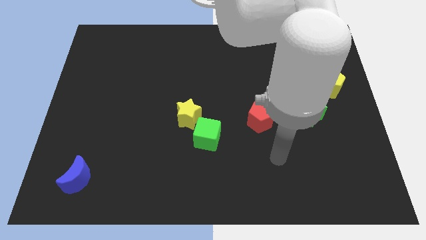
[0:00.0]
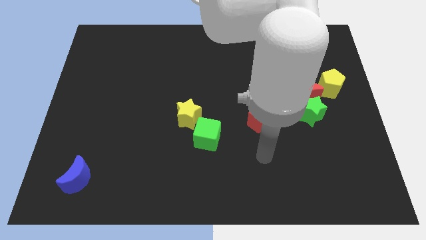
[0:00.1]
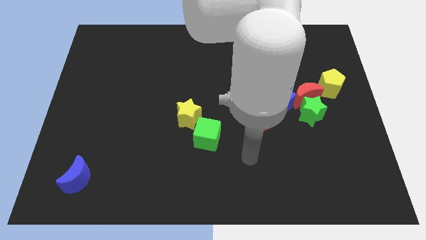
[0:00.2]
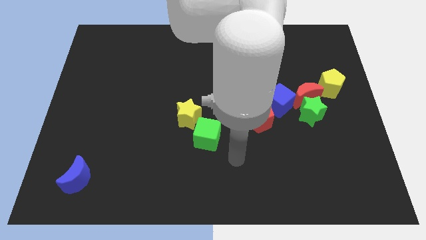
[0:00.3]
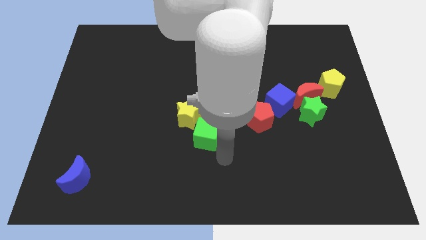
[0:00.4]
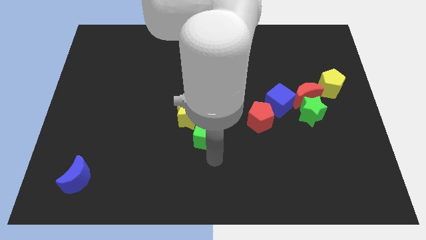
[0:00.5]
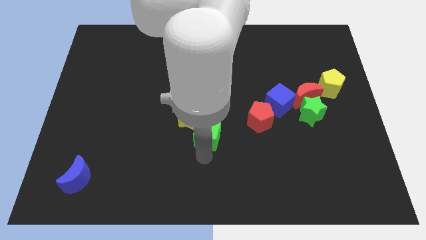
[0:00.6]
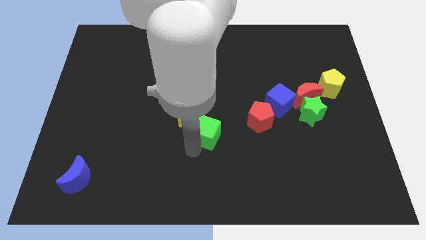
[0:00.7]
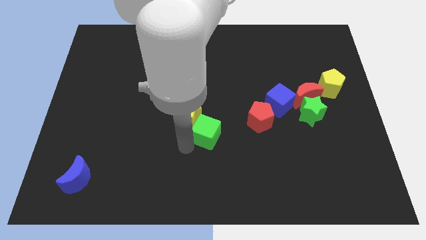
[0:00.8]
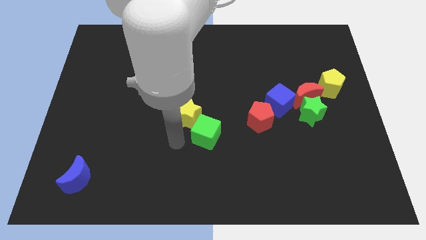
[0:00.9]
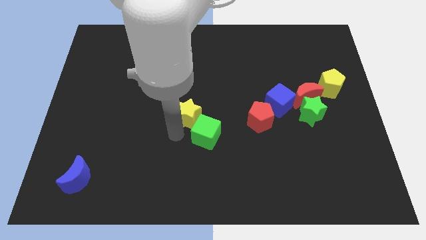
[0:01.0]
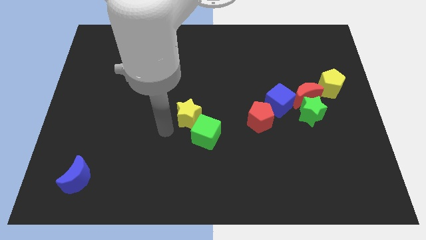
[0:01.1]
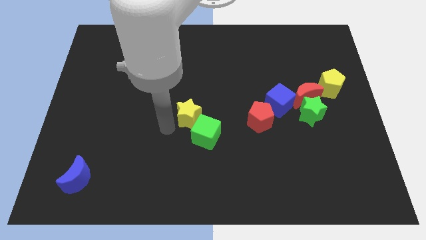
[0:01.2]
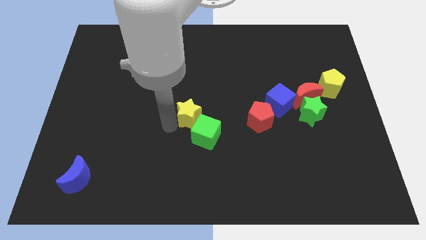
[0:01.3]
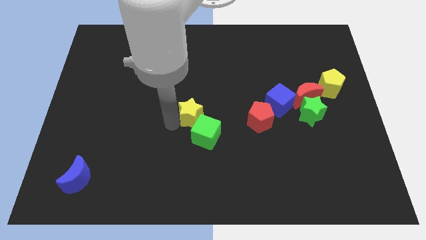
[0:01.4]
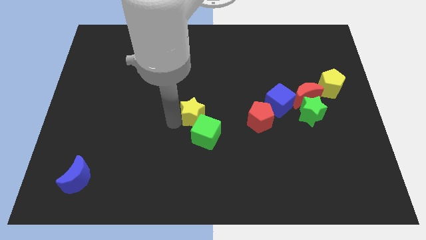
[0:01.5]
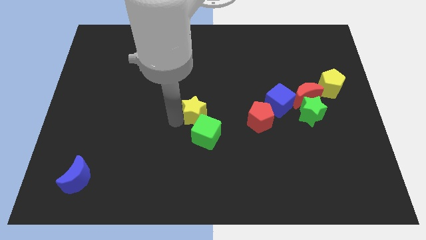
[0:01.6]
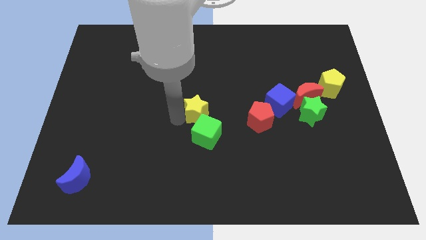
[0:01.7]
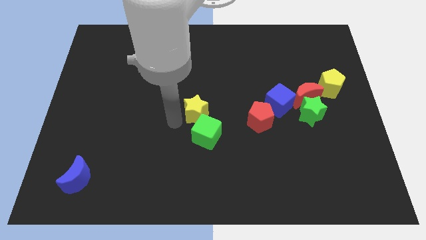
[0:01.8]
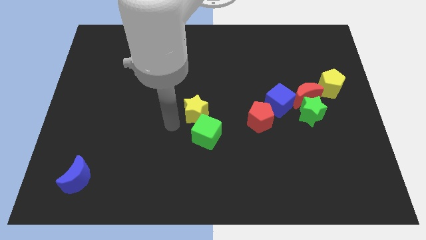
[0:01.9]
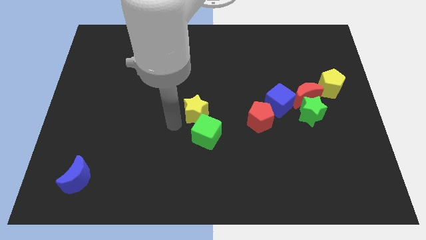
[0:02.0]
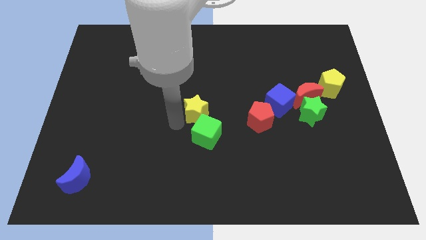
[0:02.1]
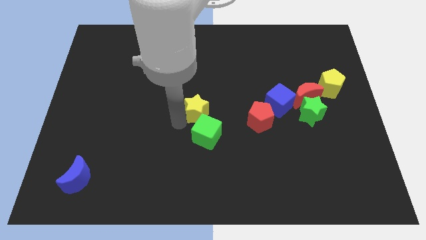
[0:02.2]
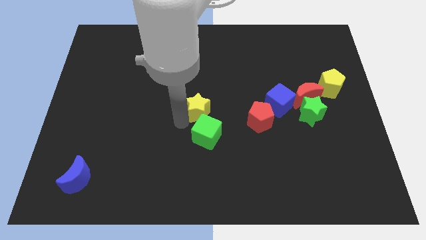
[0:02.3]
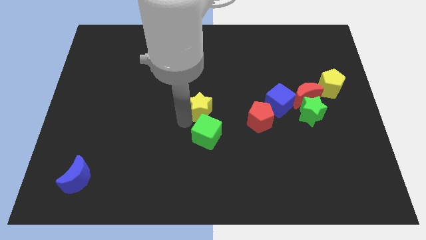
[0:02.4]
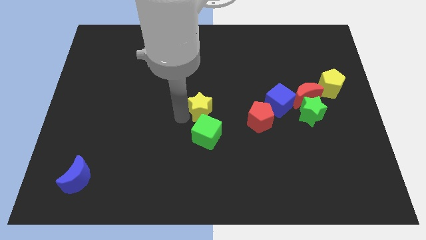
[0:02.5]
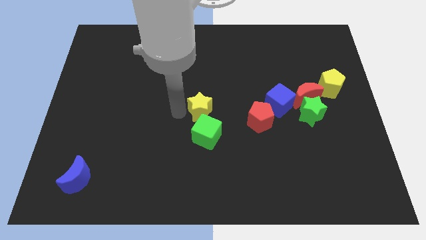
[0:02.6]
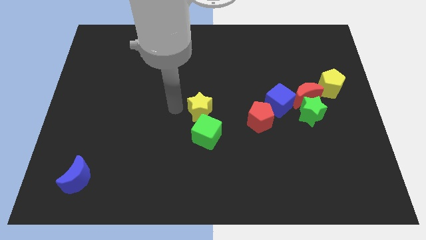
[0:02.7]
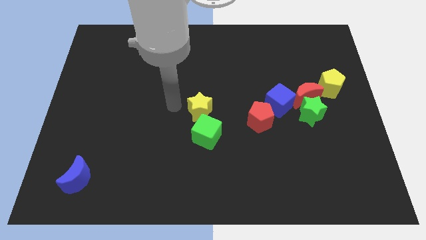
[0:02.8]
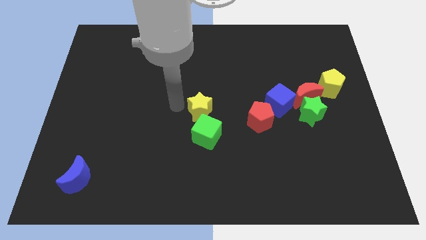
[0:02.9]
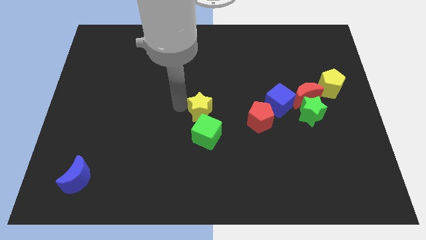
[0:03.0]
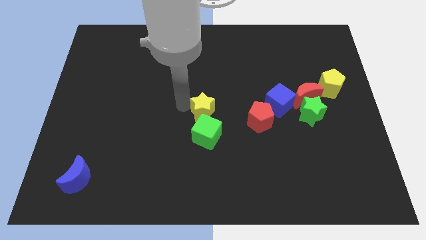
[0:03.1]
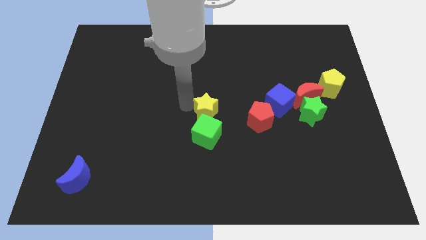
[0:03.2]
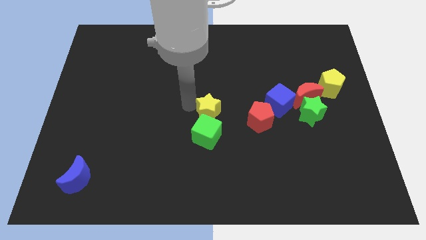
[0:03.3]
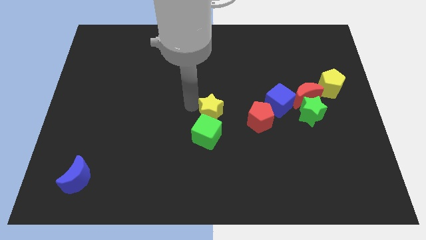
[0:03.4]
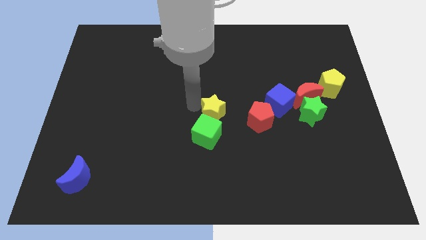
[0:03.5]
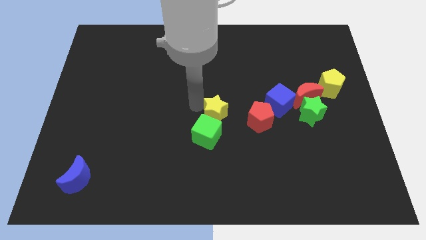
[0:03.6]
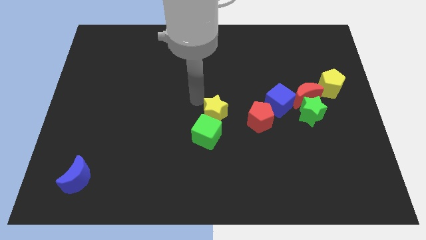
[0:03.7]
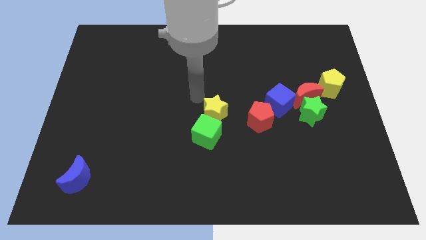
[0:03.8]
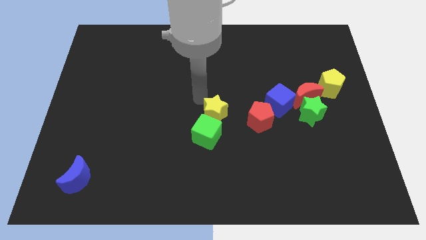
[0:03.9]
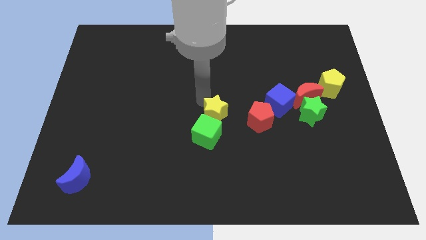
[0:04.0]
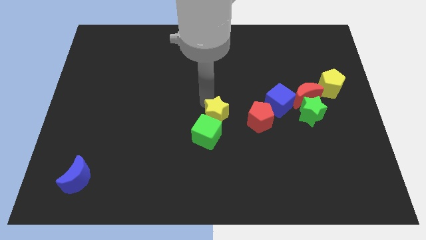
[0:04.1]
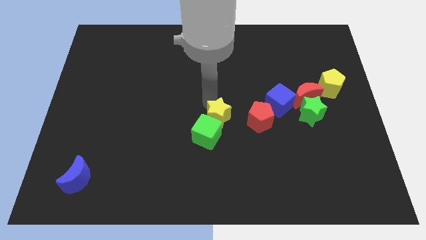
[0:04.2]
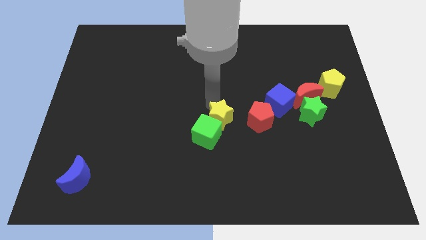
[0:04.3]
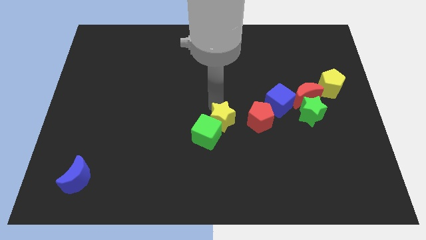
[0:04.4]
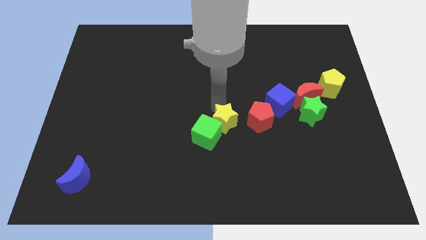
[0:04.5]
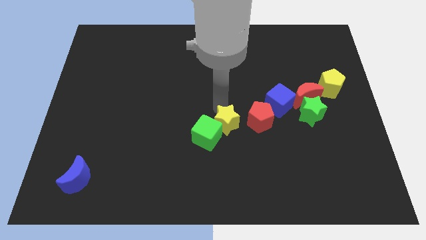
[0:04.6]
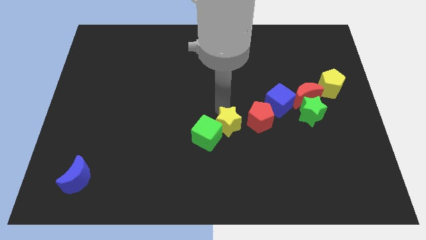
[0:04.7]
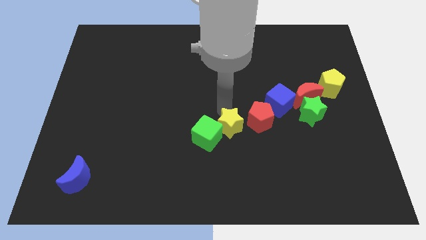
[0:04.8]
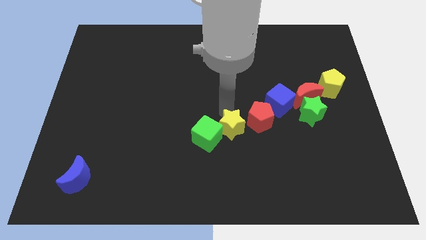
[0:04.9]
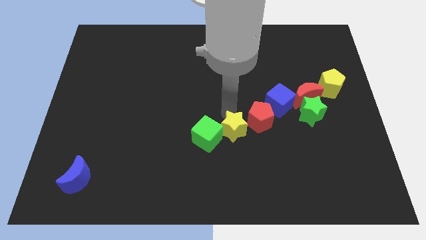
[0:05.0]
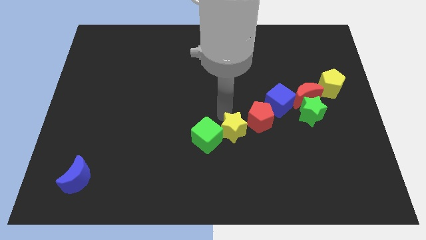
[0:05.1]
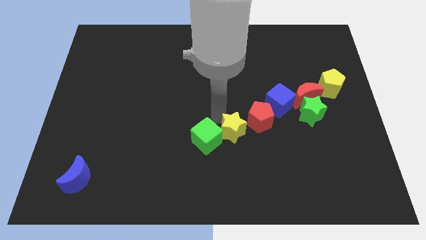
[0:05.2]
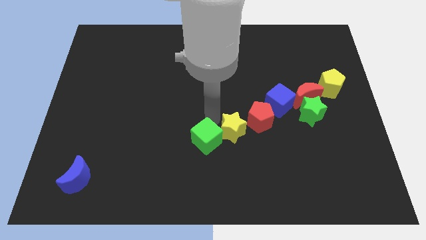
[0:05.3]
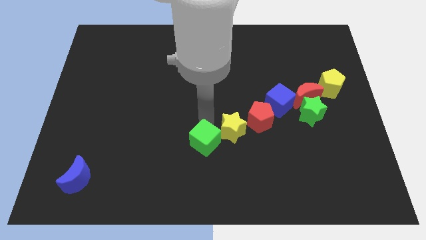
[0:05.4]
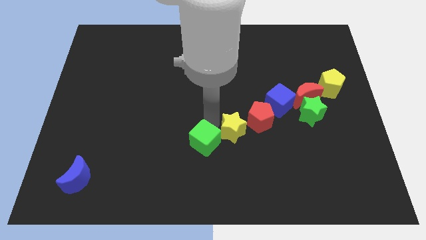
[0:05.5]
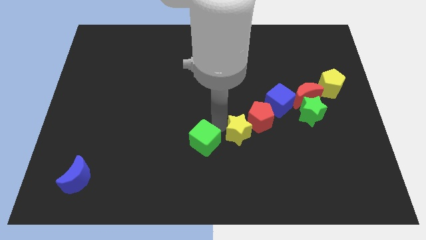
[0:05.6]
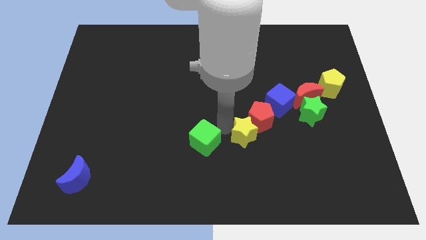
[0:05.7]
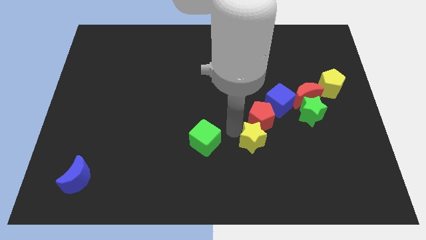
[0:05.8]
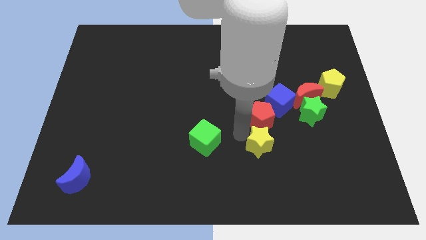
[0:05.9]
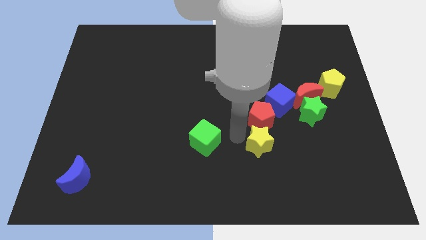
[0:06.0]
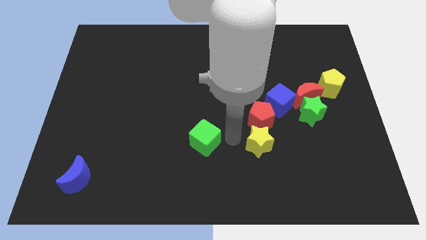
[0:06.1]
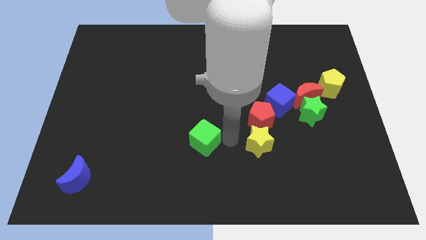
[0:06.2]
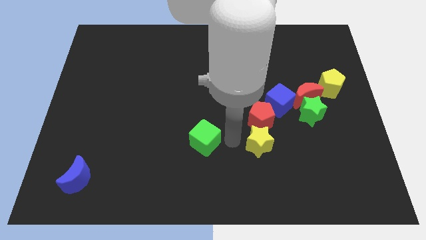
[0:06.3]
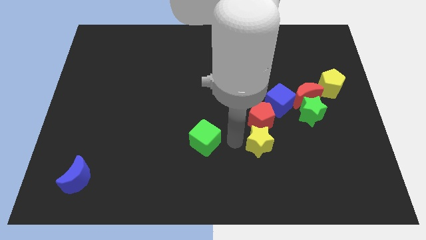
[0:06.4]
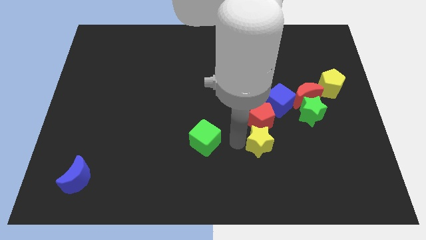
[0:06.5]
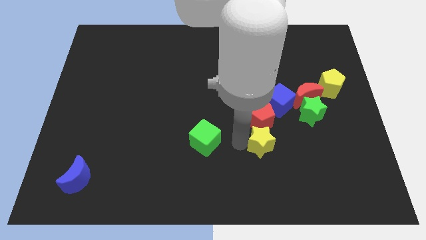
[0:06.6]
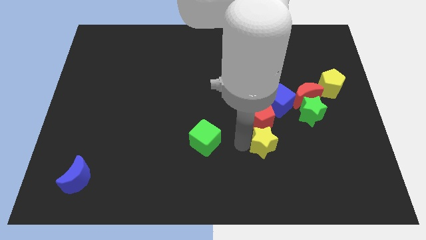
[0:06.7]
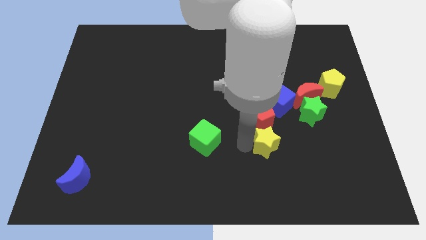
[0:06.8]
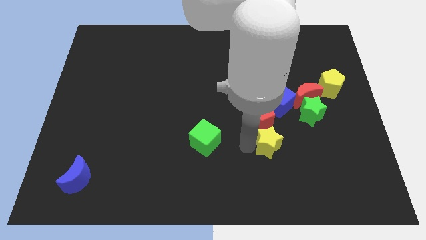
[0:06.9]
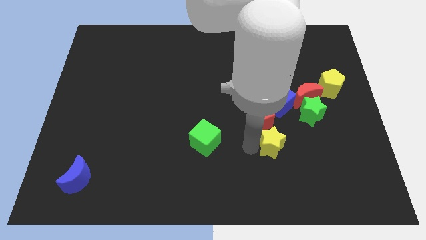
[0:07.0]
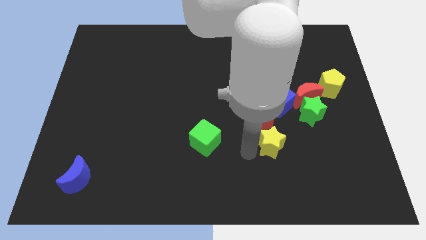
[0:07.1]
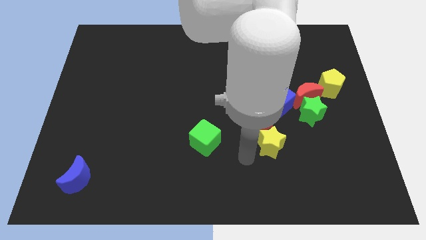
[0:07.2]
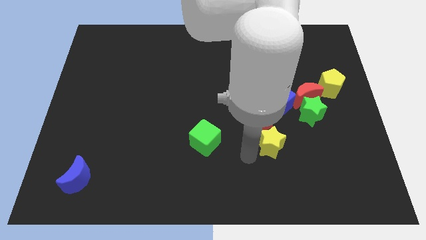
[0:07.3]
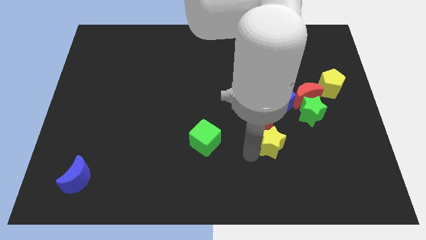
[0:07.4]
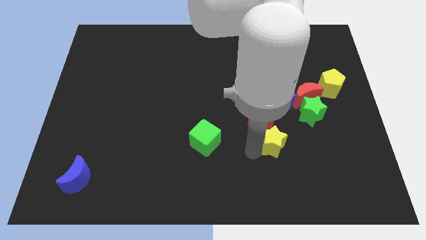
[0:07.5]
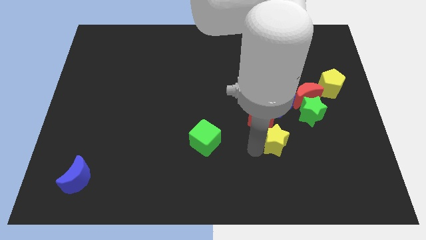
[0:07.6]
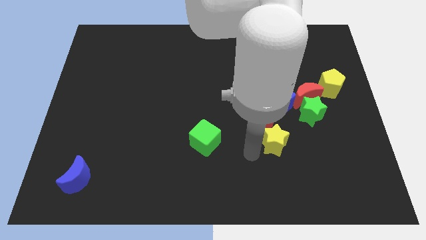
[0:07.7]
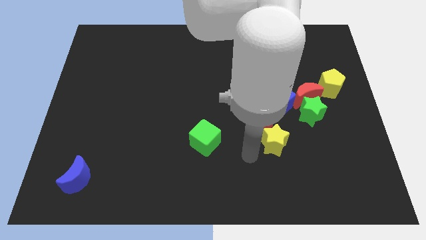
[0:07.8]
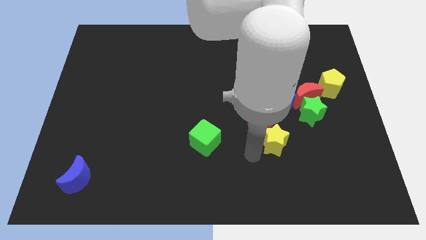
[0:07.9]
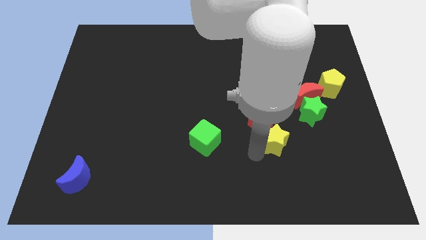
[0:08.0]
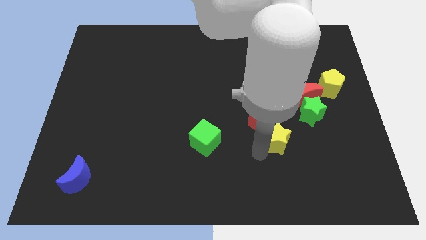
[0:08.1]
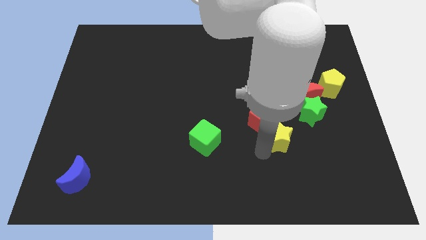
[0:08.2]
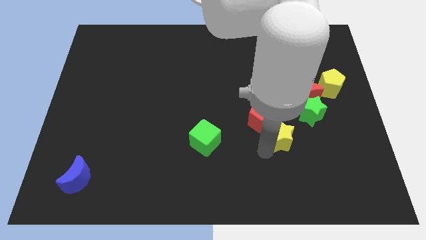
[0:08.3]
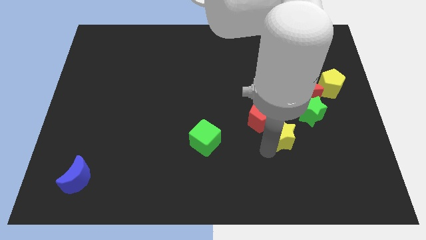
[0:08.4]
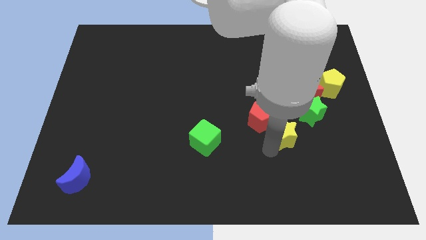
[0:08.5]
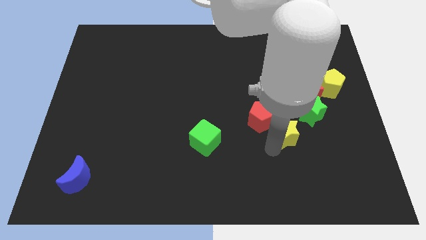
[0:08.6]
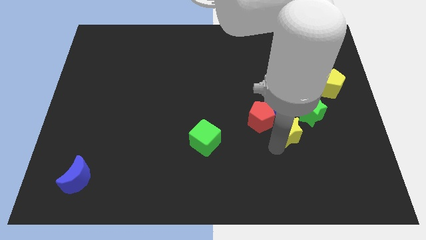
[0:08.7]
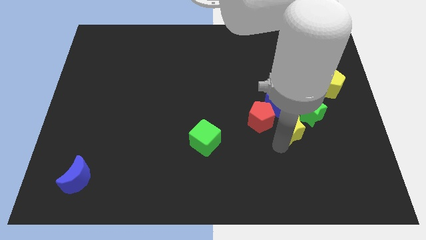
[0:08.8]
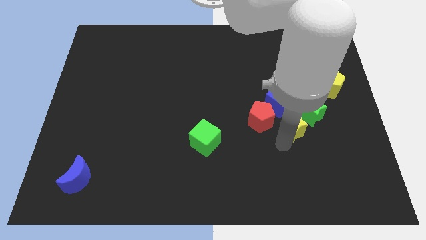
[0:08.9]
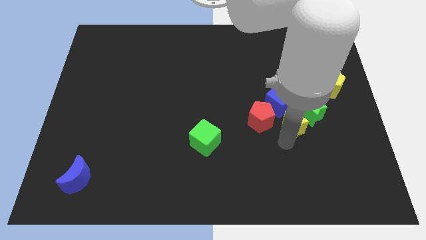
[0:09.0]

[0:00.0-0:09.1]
move the yellow star next to the green star
